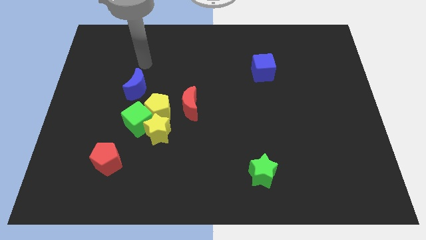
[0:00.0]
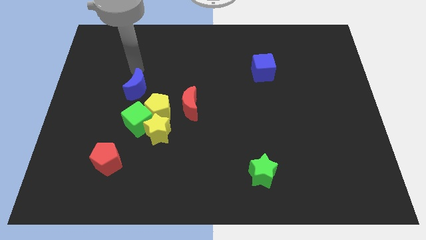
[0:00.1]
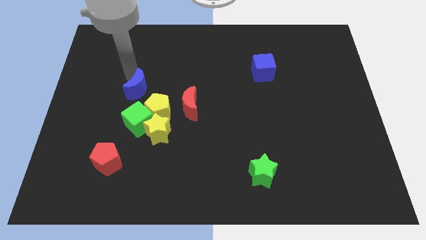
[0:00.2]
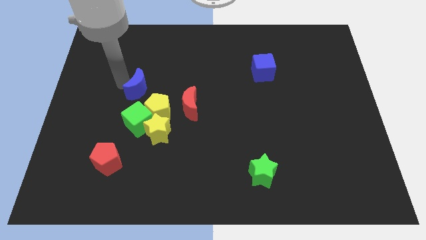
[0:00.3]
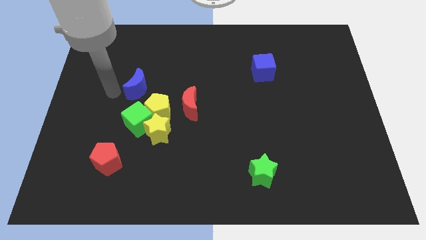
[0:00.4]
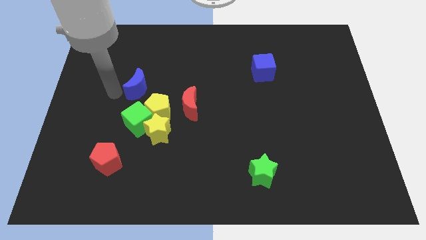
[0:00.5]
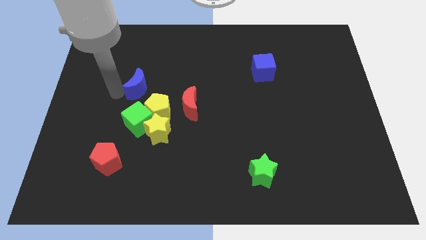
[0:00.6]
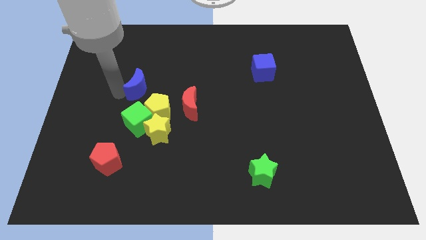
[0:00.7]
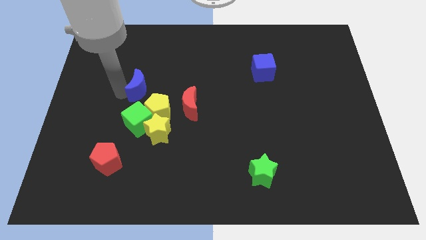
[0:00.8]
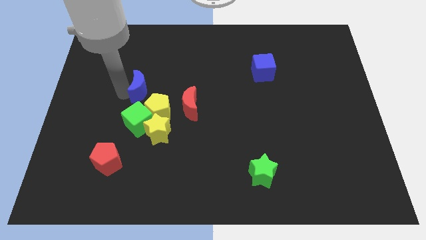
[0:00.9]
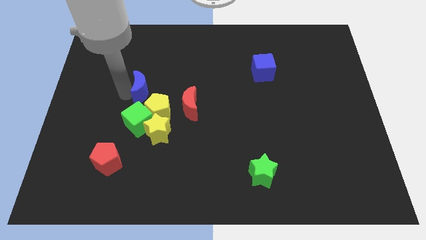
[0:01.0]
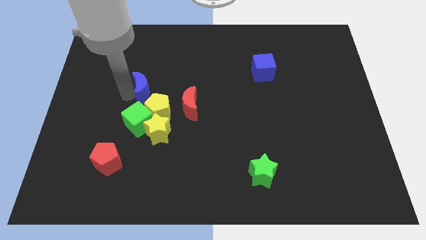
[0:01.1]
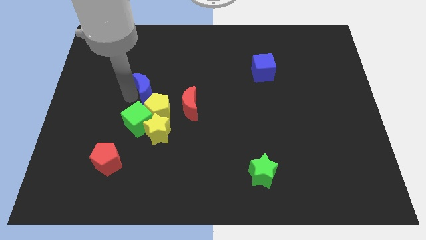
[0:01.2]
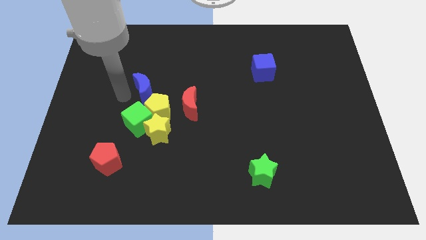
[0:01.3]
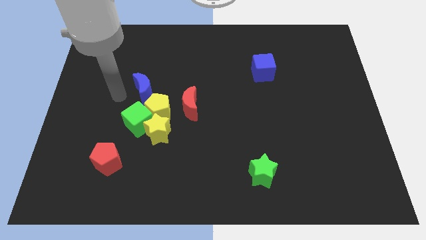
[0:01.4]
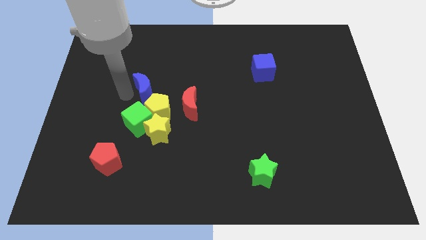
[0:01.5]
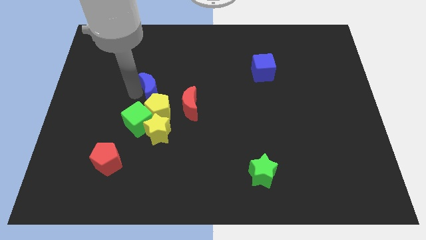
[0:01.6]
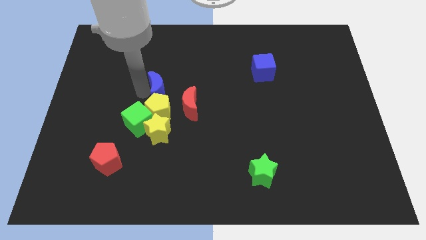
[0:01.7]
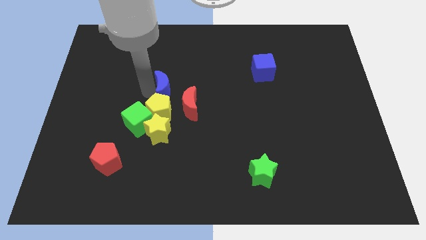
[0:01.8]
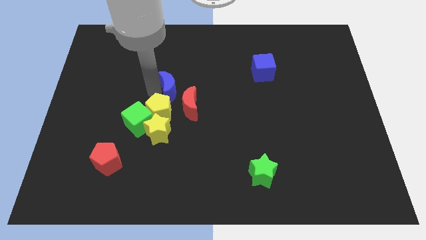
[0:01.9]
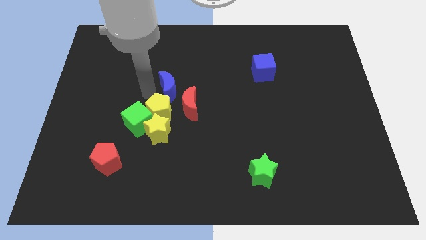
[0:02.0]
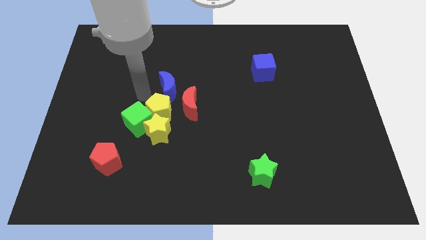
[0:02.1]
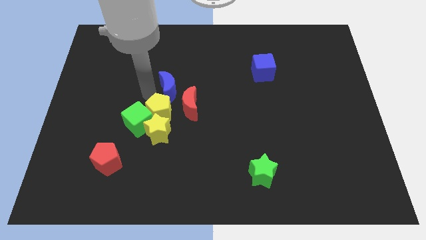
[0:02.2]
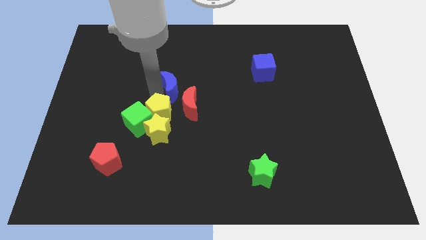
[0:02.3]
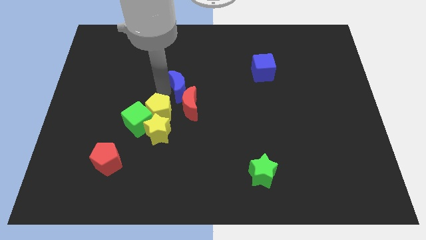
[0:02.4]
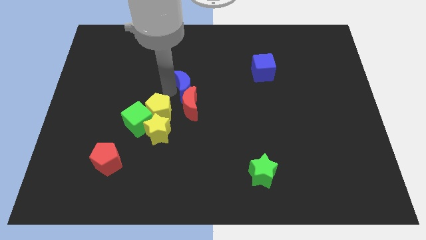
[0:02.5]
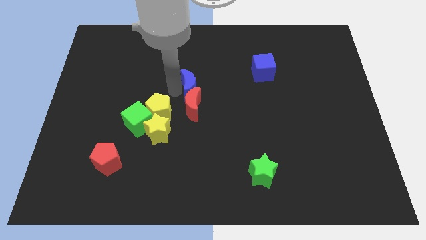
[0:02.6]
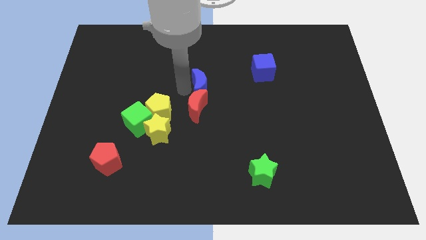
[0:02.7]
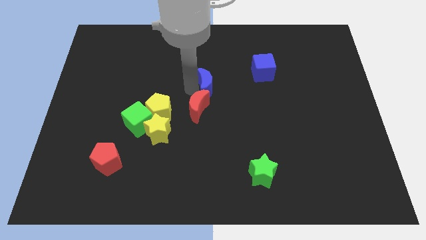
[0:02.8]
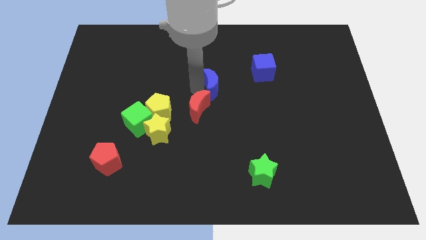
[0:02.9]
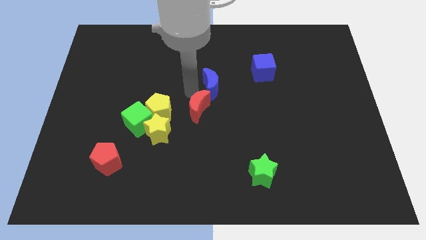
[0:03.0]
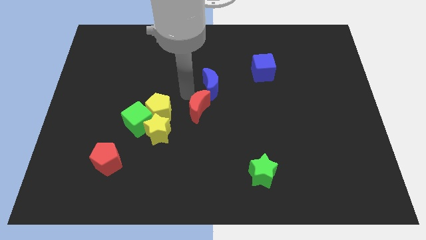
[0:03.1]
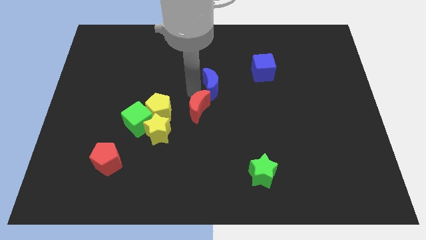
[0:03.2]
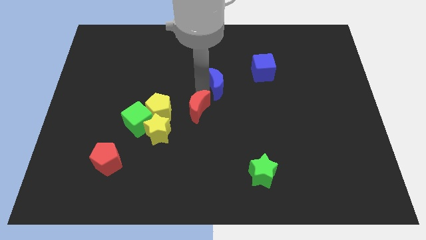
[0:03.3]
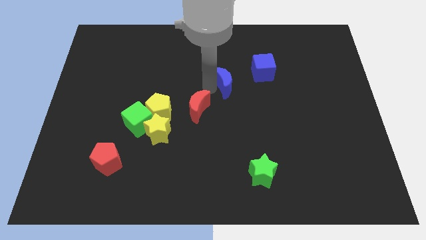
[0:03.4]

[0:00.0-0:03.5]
slide the blue moon to the right

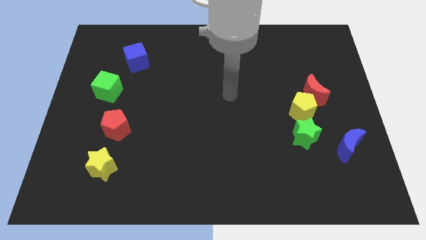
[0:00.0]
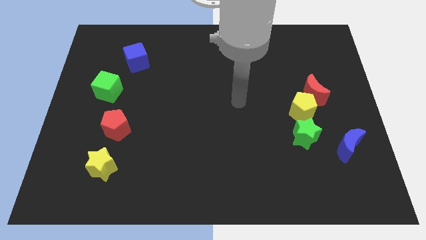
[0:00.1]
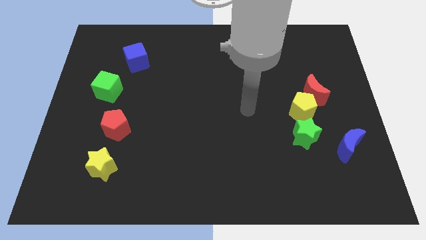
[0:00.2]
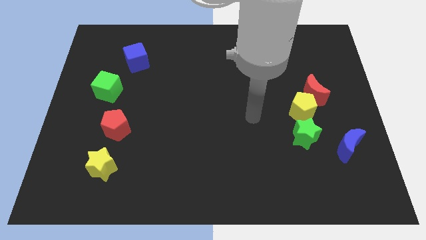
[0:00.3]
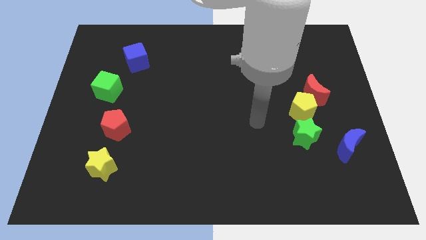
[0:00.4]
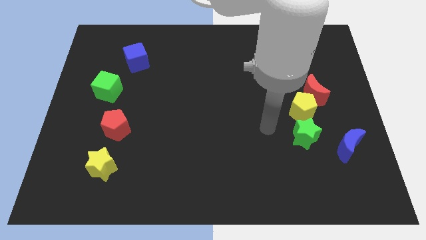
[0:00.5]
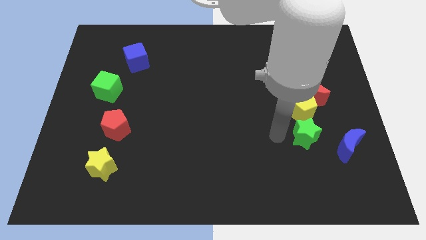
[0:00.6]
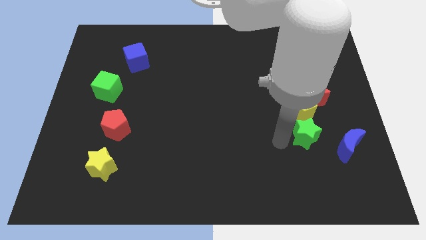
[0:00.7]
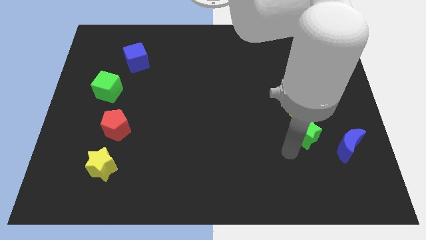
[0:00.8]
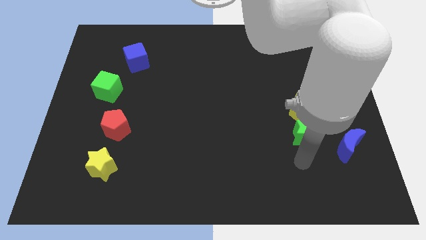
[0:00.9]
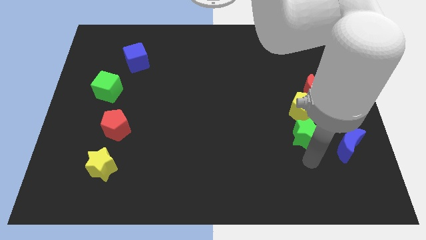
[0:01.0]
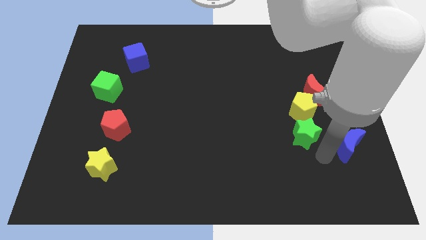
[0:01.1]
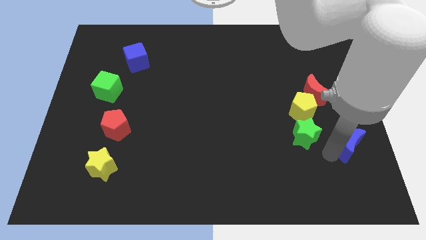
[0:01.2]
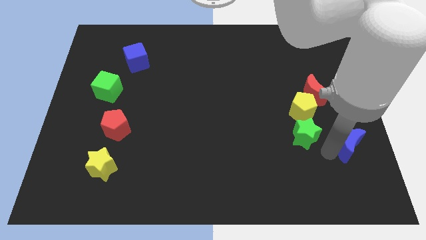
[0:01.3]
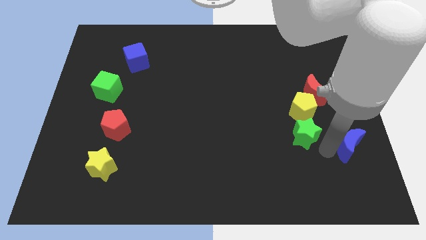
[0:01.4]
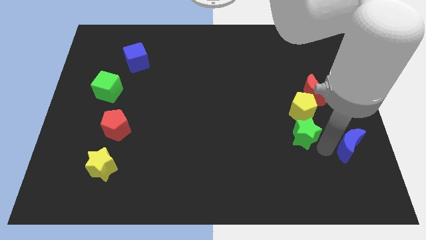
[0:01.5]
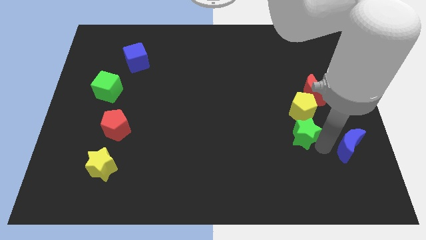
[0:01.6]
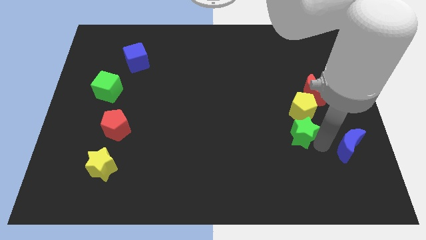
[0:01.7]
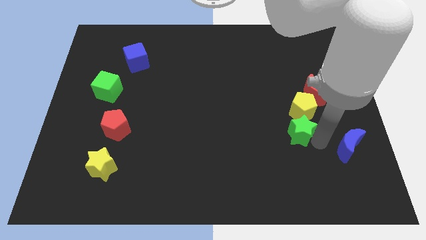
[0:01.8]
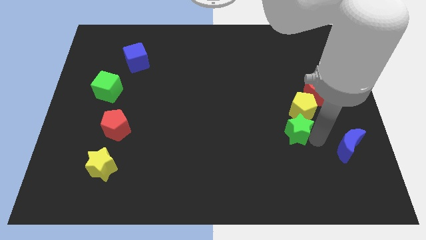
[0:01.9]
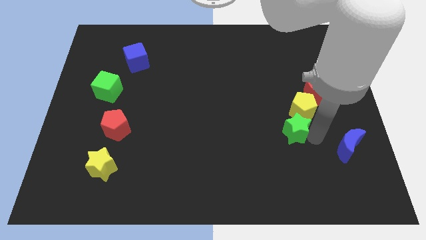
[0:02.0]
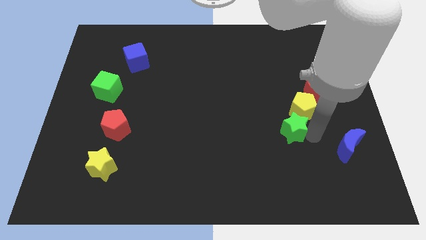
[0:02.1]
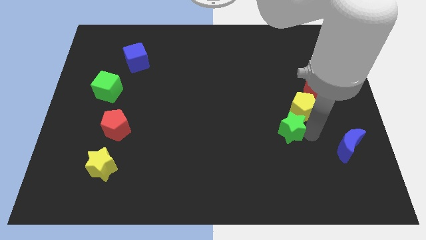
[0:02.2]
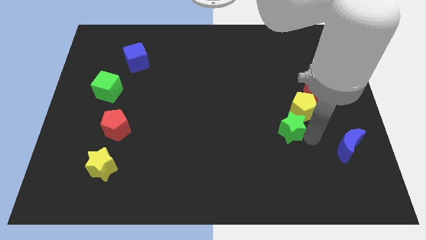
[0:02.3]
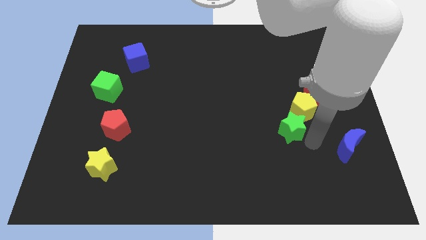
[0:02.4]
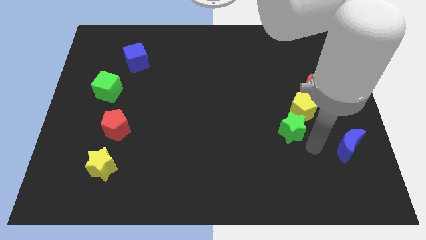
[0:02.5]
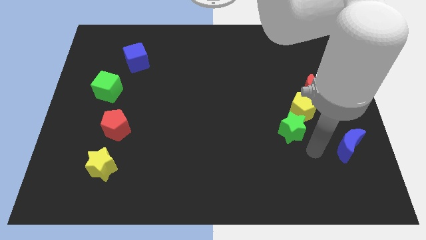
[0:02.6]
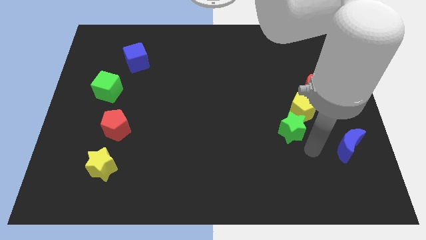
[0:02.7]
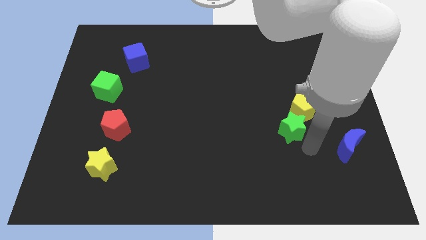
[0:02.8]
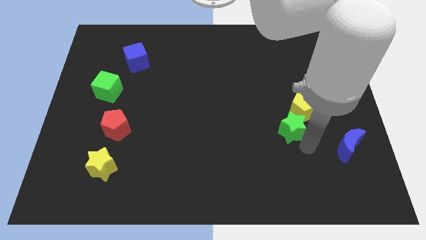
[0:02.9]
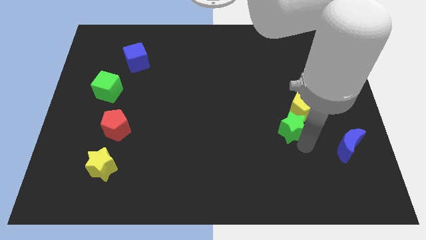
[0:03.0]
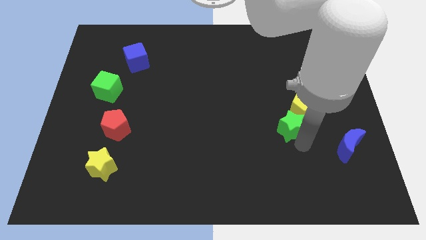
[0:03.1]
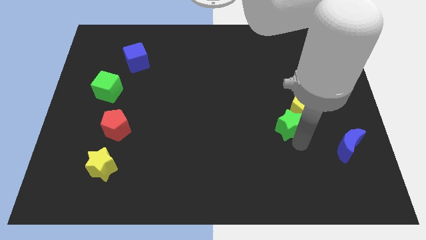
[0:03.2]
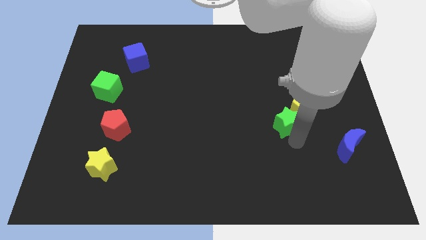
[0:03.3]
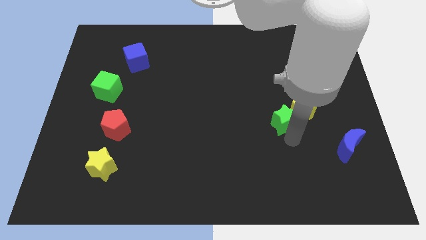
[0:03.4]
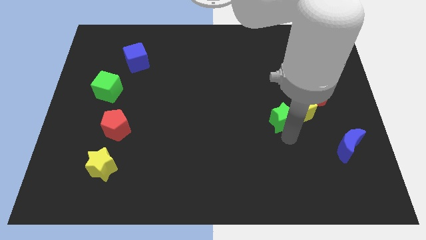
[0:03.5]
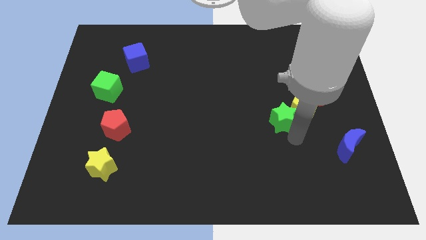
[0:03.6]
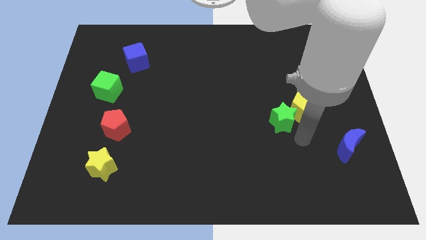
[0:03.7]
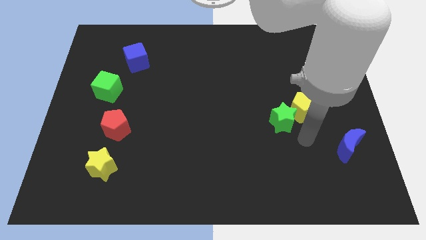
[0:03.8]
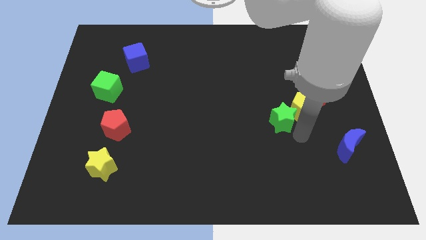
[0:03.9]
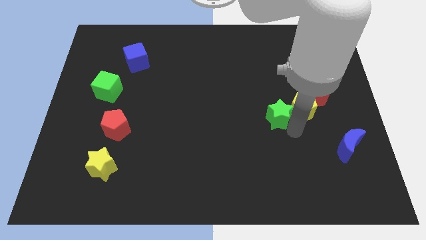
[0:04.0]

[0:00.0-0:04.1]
push the green star somewhat diagonally upwards and left

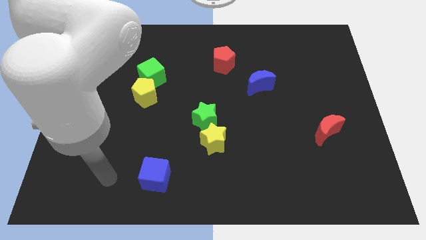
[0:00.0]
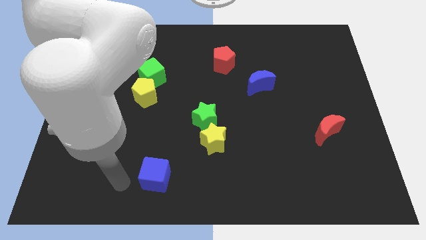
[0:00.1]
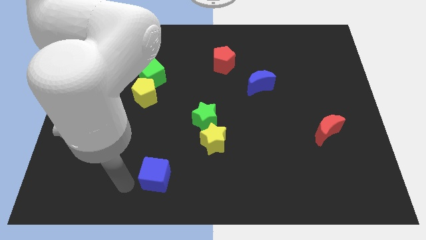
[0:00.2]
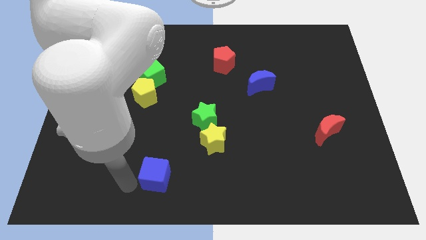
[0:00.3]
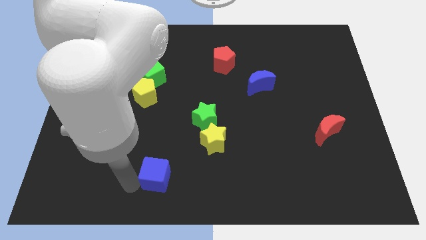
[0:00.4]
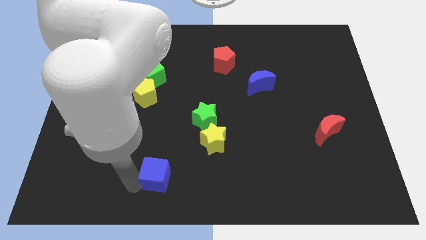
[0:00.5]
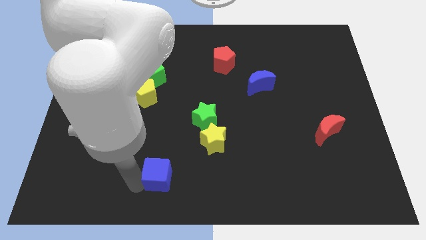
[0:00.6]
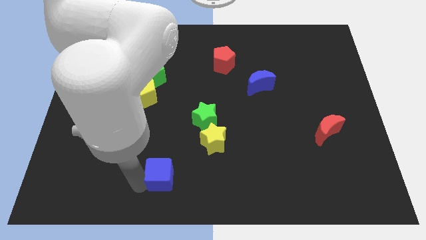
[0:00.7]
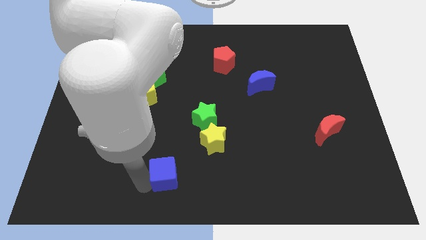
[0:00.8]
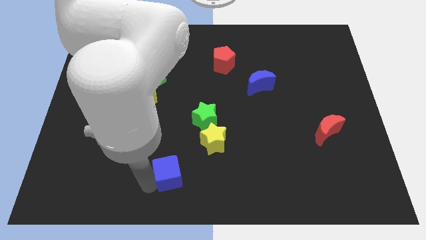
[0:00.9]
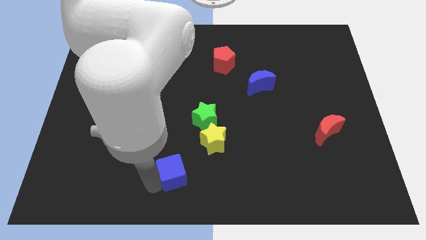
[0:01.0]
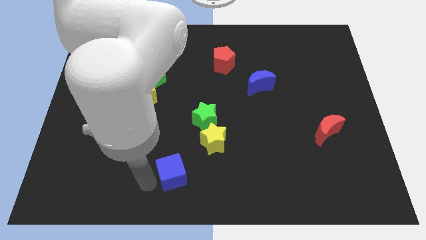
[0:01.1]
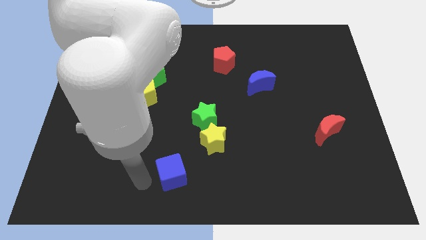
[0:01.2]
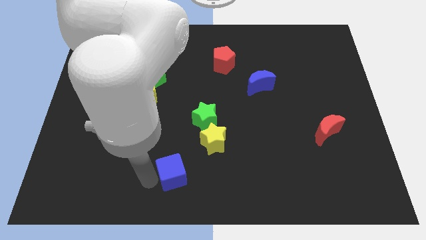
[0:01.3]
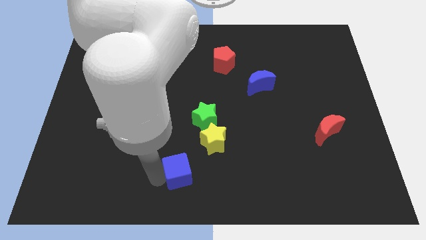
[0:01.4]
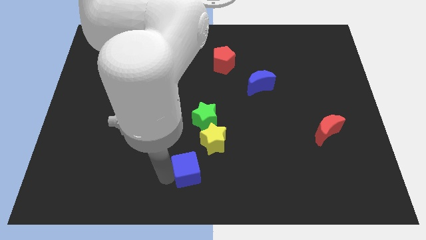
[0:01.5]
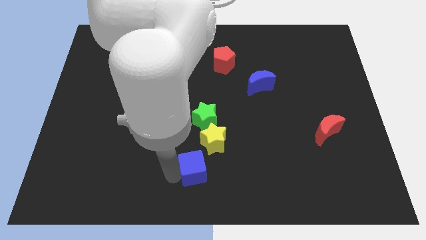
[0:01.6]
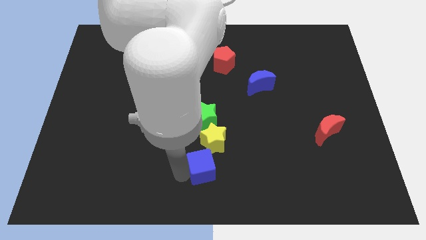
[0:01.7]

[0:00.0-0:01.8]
slide the blue cube up and then to the right a little bit
